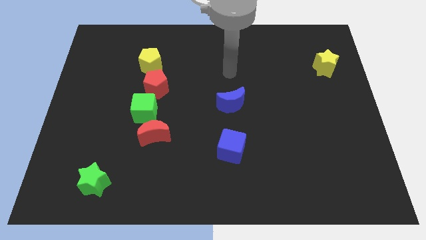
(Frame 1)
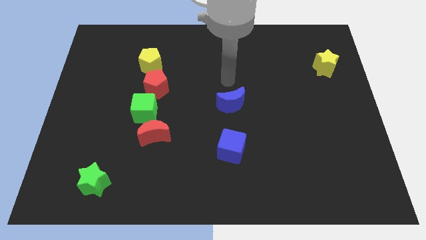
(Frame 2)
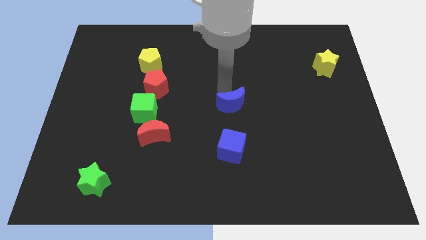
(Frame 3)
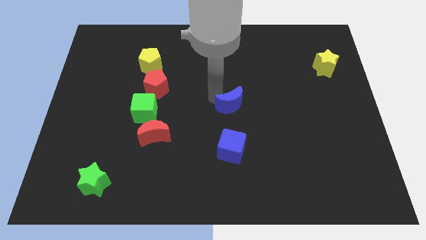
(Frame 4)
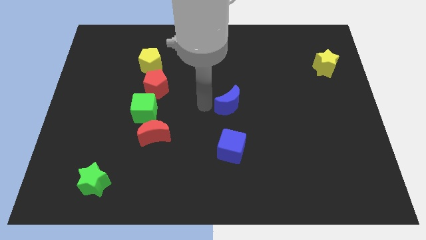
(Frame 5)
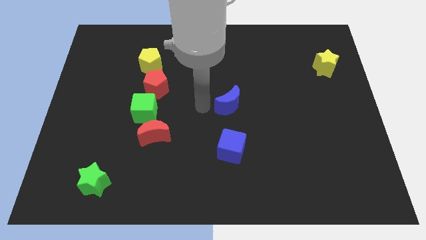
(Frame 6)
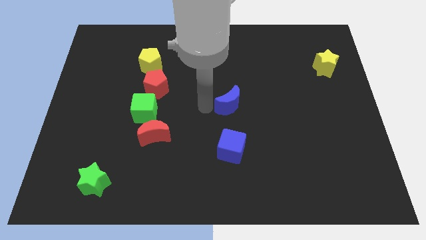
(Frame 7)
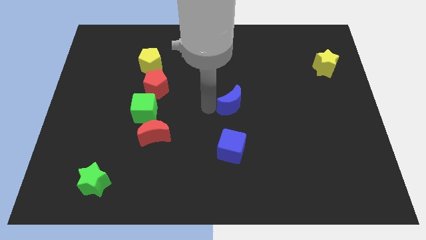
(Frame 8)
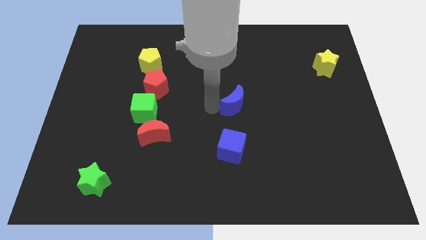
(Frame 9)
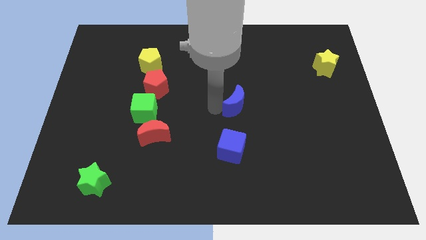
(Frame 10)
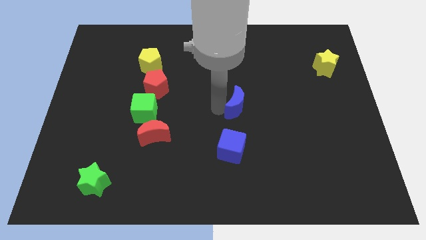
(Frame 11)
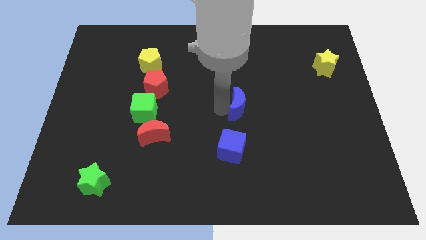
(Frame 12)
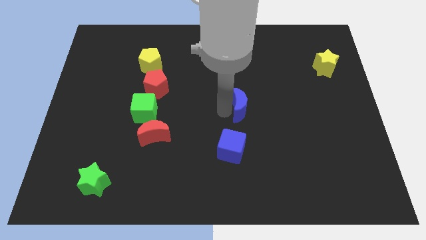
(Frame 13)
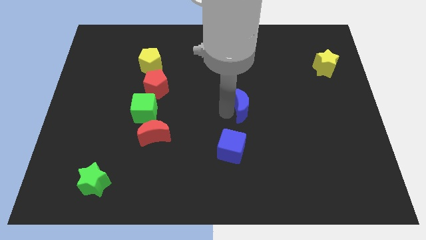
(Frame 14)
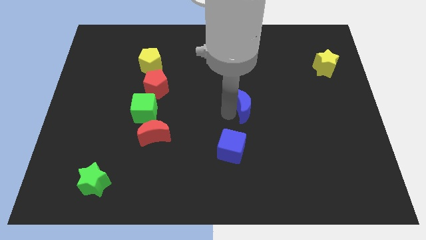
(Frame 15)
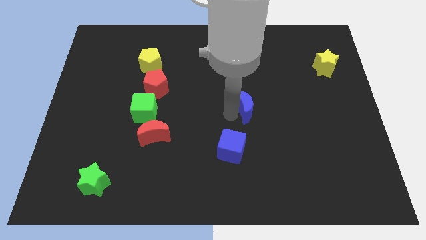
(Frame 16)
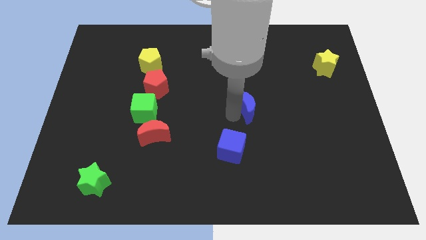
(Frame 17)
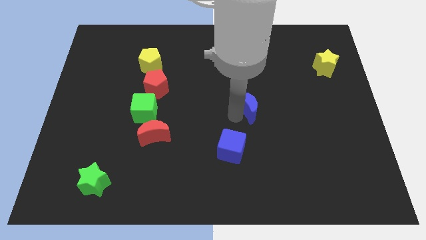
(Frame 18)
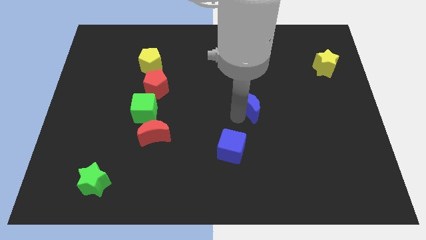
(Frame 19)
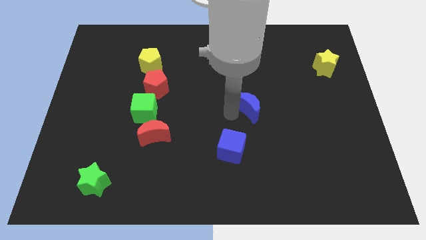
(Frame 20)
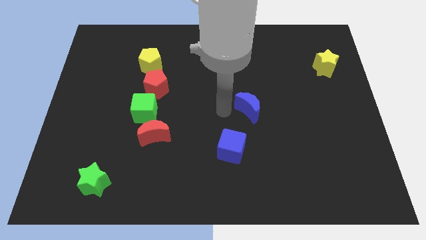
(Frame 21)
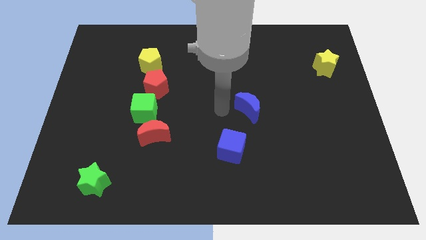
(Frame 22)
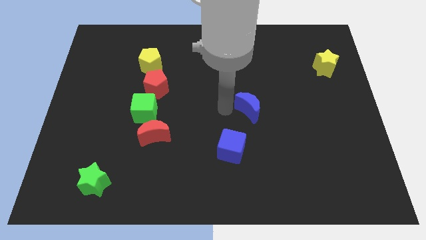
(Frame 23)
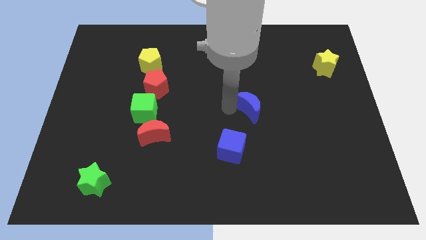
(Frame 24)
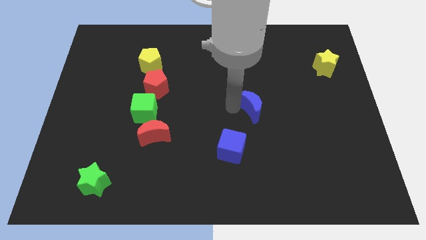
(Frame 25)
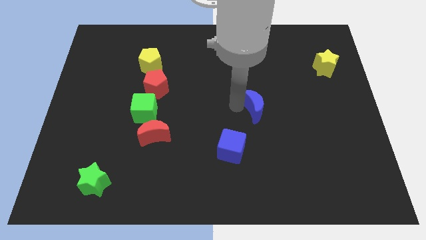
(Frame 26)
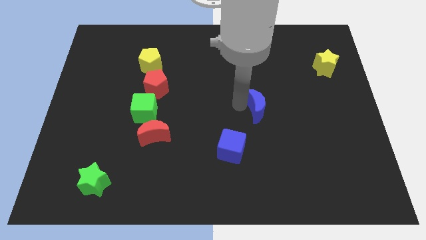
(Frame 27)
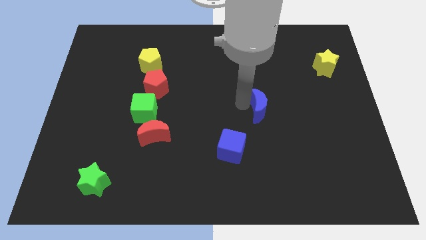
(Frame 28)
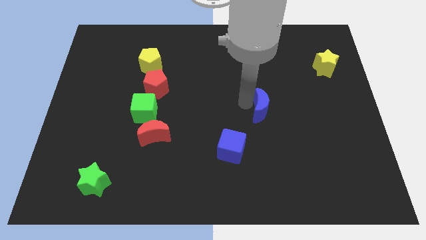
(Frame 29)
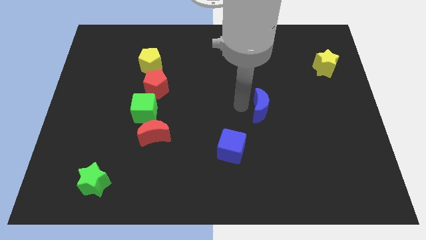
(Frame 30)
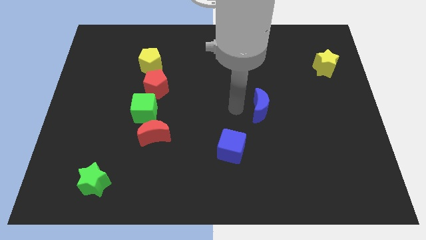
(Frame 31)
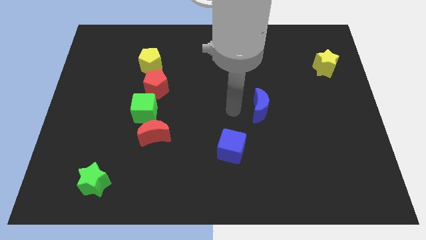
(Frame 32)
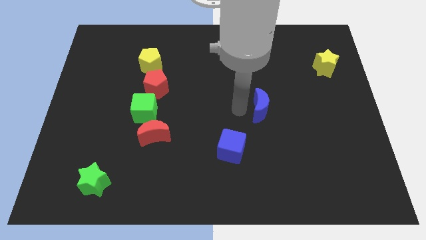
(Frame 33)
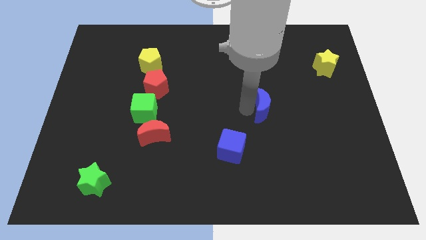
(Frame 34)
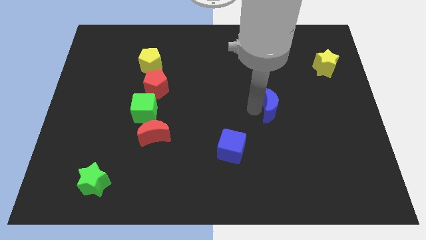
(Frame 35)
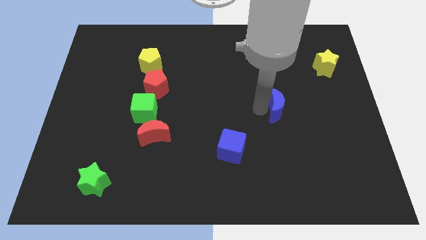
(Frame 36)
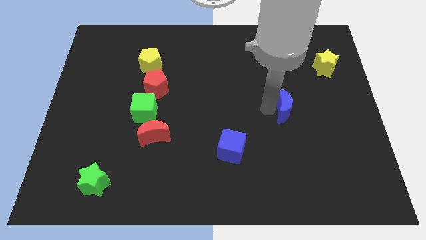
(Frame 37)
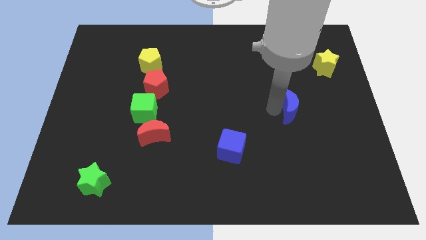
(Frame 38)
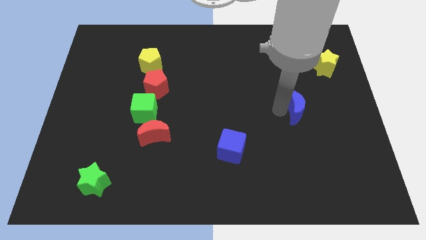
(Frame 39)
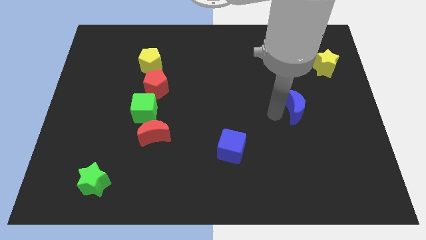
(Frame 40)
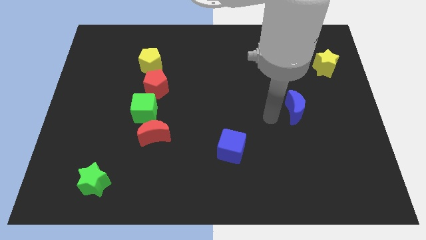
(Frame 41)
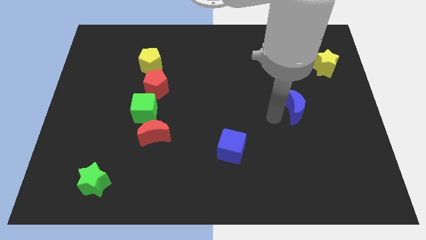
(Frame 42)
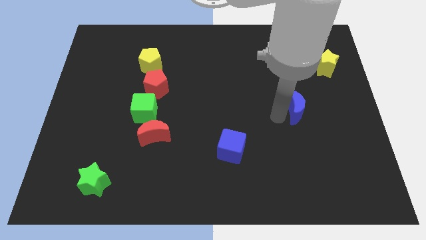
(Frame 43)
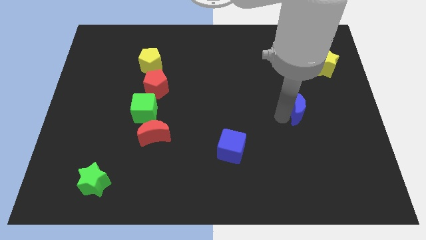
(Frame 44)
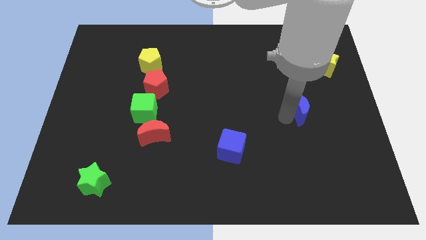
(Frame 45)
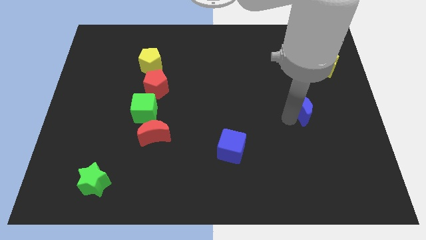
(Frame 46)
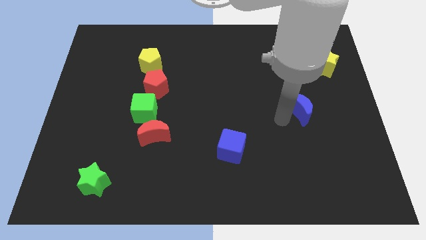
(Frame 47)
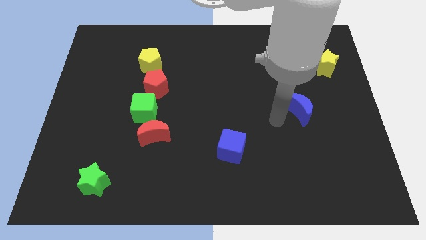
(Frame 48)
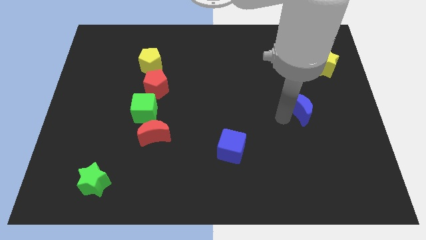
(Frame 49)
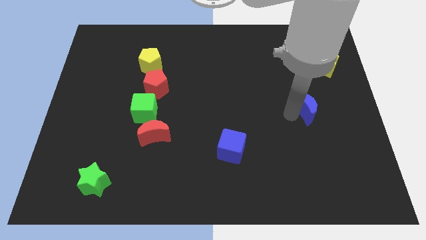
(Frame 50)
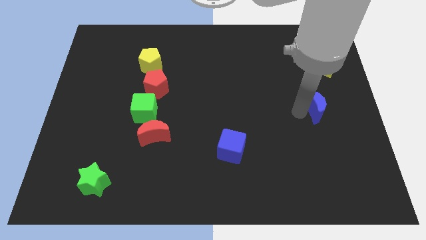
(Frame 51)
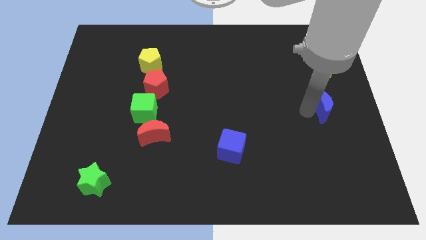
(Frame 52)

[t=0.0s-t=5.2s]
put the blue moon to the bottom of the yellow star

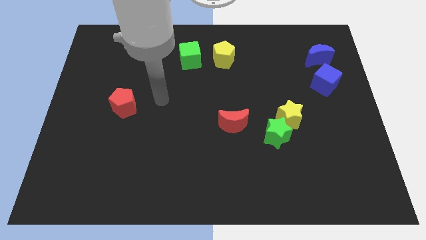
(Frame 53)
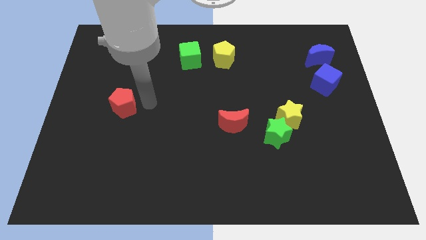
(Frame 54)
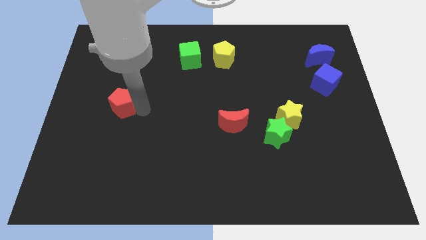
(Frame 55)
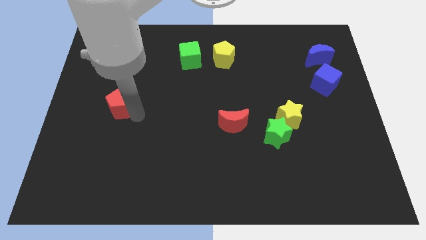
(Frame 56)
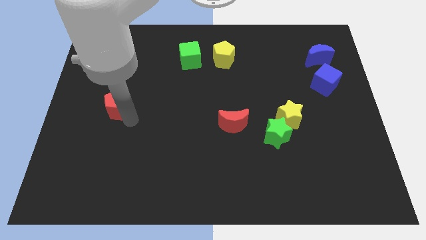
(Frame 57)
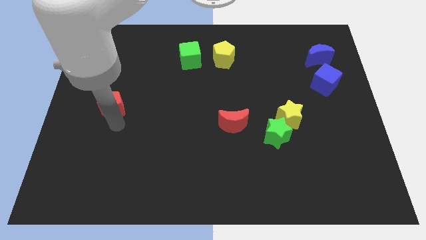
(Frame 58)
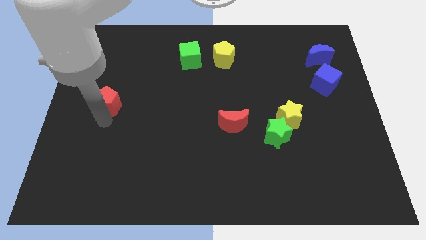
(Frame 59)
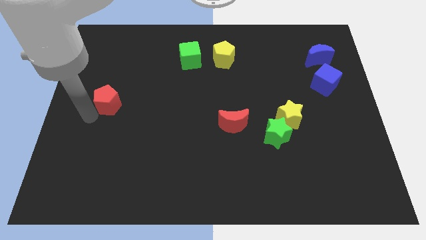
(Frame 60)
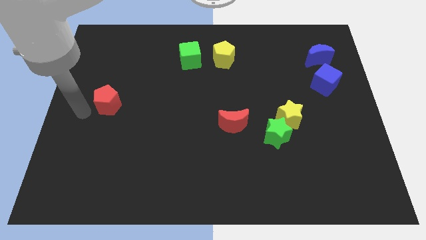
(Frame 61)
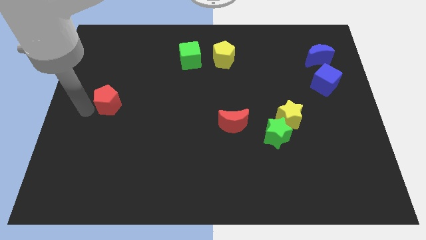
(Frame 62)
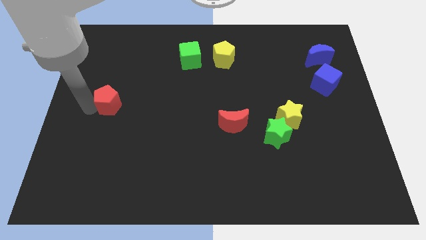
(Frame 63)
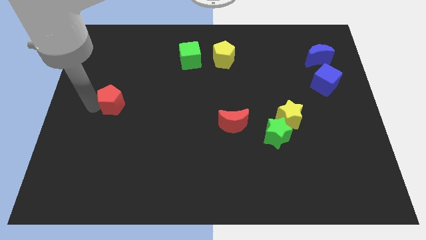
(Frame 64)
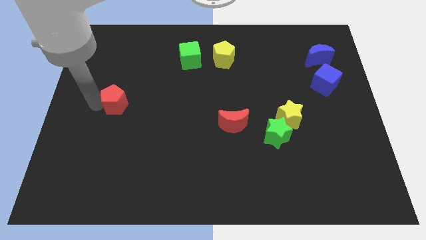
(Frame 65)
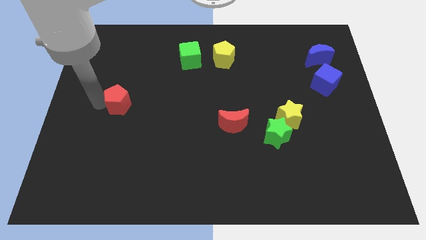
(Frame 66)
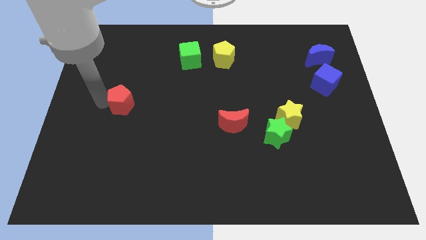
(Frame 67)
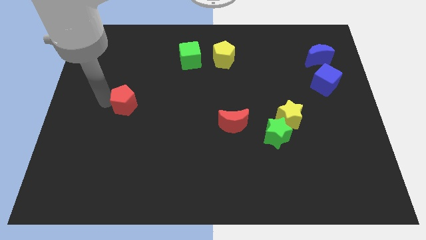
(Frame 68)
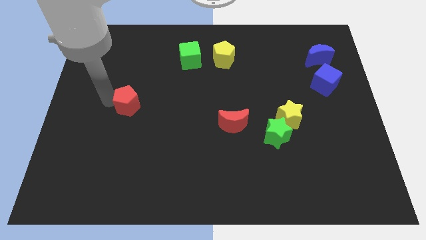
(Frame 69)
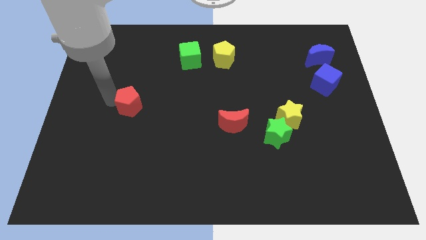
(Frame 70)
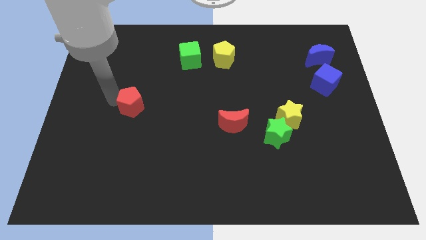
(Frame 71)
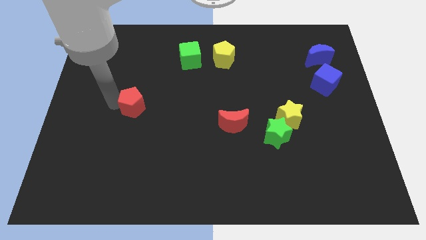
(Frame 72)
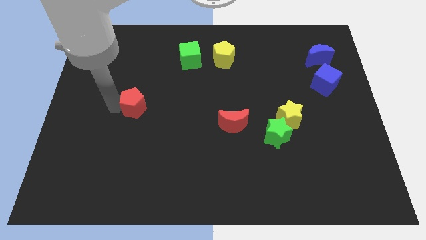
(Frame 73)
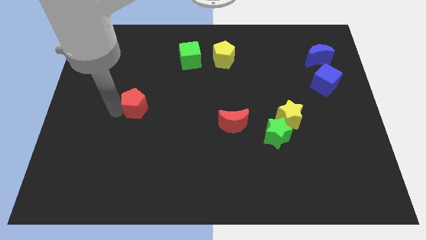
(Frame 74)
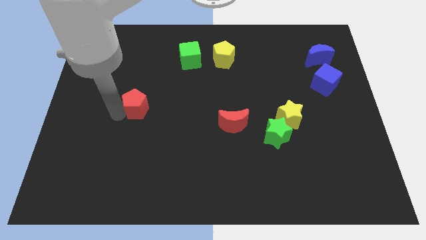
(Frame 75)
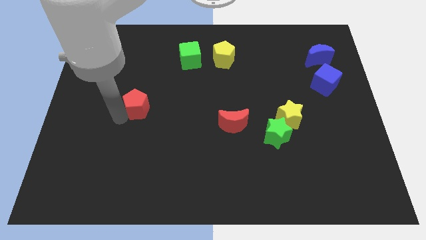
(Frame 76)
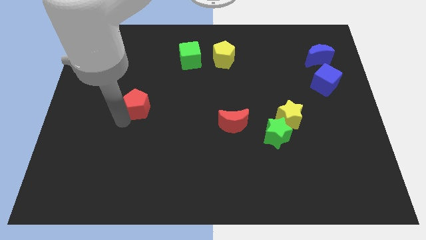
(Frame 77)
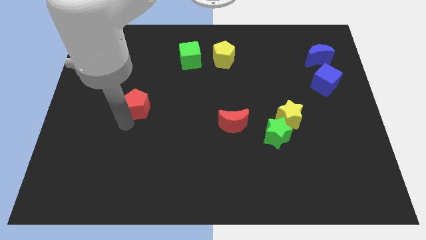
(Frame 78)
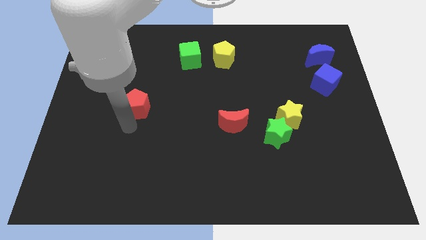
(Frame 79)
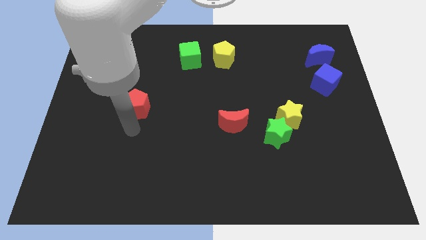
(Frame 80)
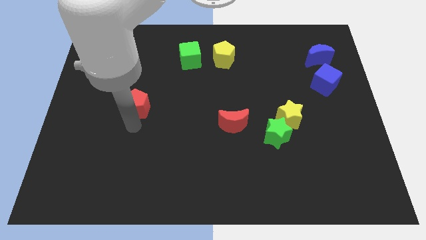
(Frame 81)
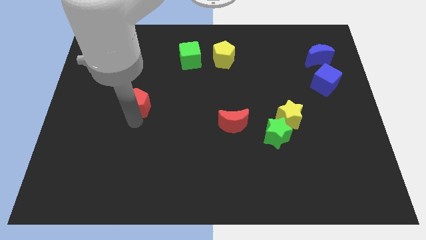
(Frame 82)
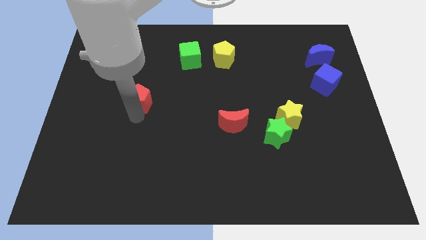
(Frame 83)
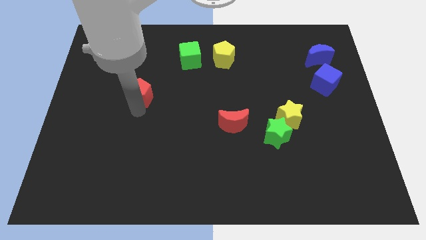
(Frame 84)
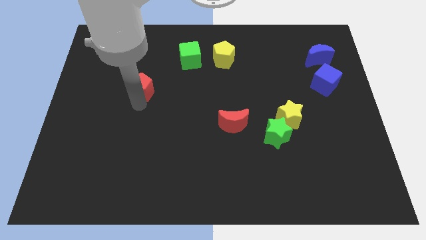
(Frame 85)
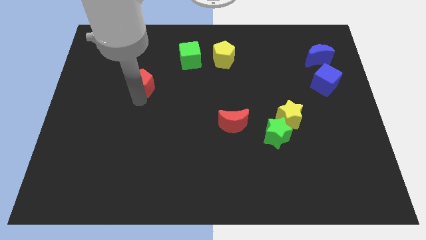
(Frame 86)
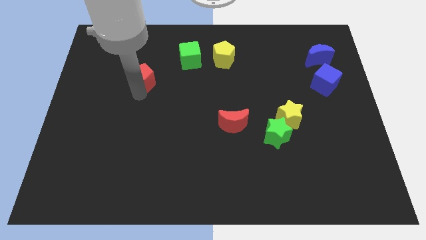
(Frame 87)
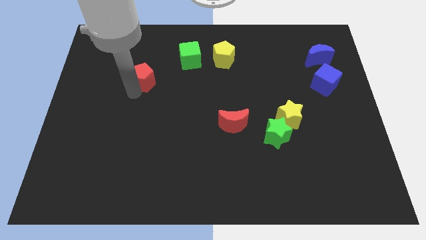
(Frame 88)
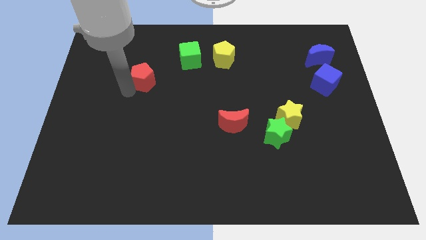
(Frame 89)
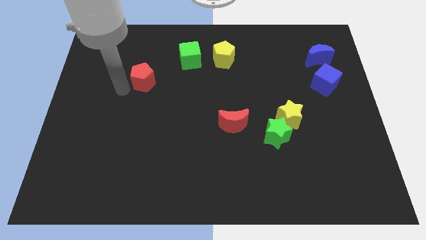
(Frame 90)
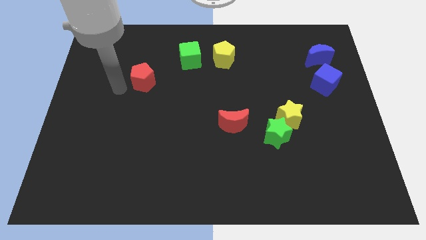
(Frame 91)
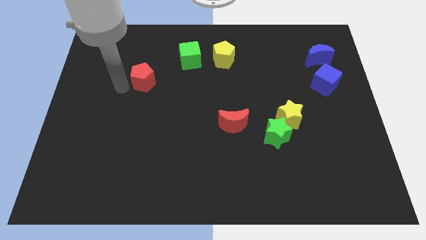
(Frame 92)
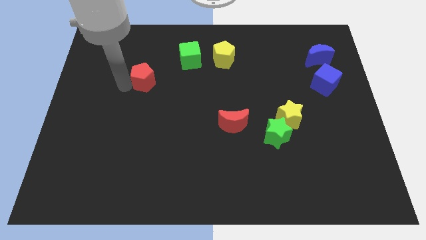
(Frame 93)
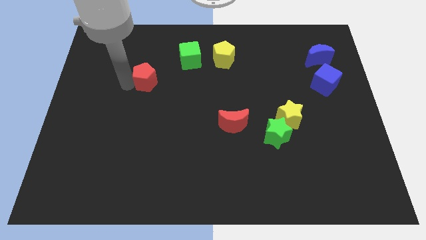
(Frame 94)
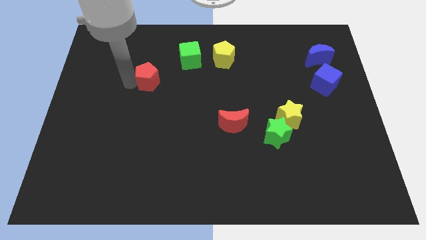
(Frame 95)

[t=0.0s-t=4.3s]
move the red pentagon to the bottom left of the green cube
